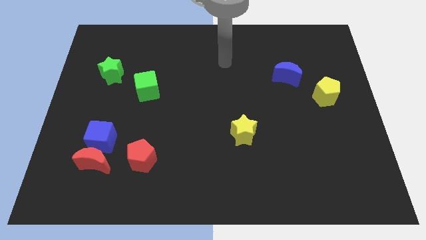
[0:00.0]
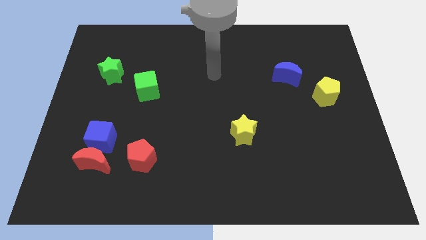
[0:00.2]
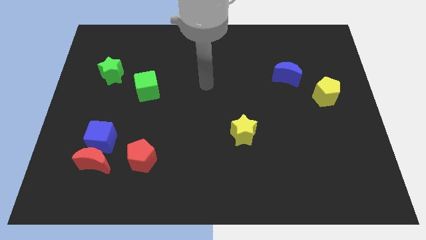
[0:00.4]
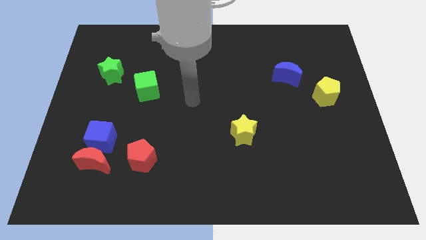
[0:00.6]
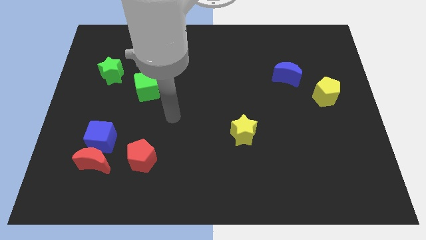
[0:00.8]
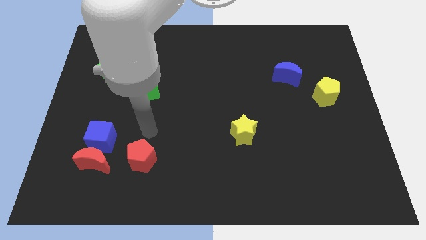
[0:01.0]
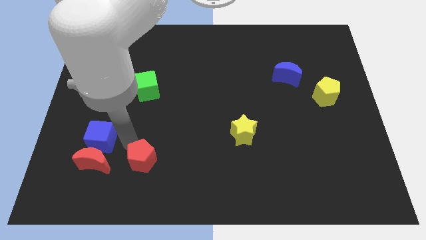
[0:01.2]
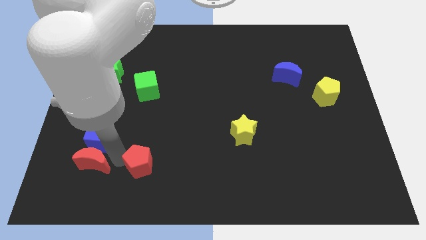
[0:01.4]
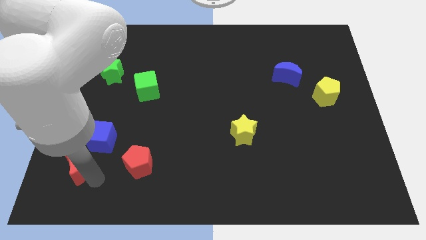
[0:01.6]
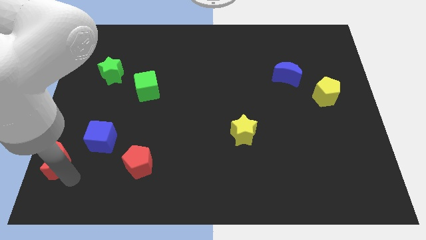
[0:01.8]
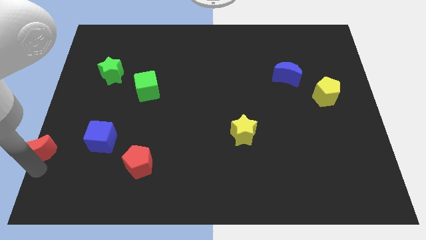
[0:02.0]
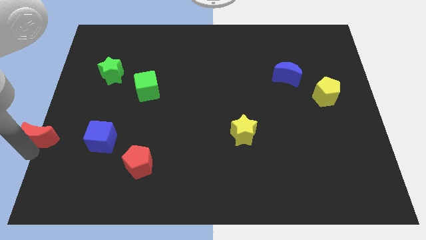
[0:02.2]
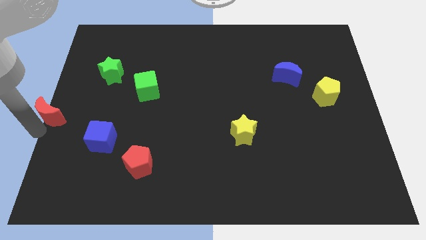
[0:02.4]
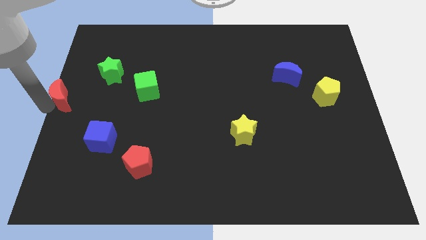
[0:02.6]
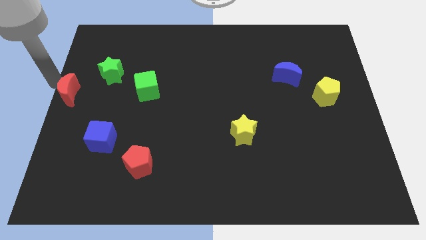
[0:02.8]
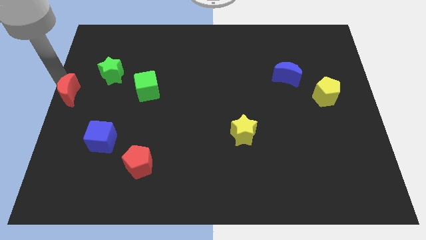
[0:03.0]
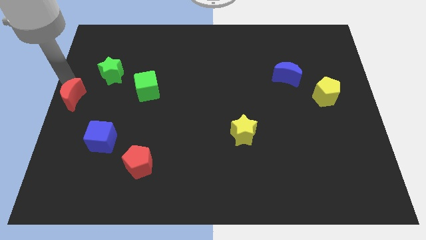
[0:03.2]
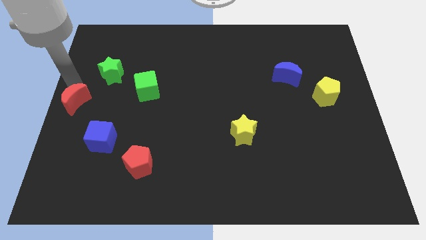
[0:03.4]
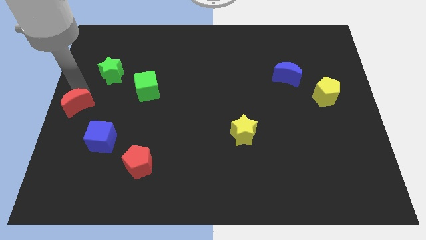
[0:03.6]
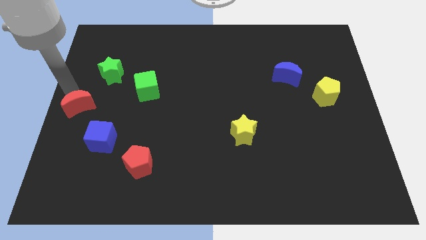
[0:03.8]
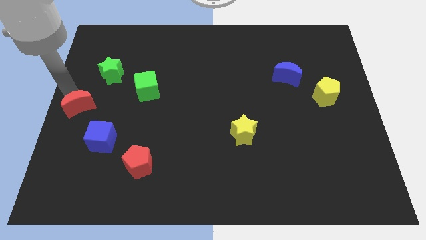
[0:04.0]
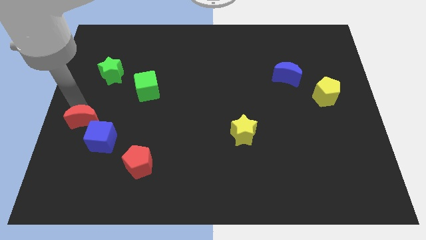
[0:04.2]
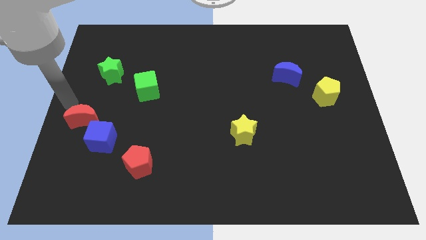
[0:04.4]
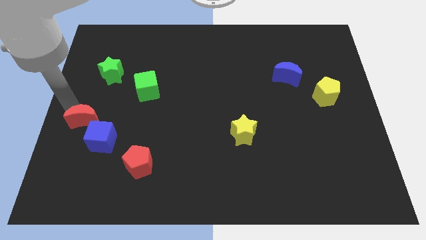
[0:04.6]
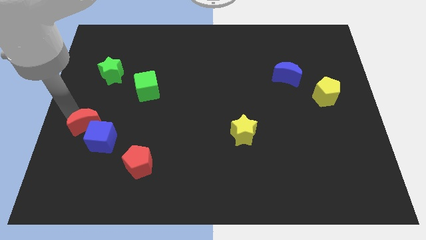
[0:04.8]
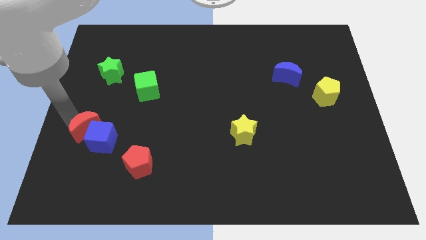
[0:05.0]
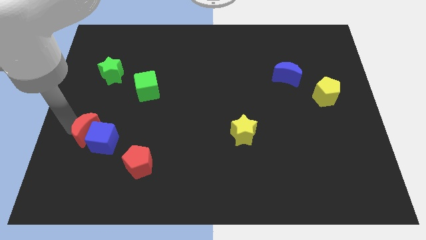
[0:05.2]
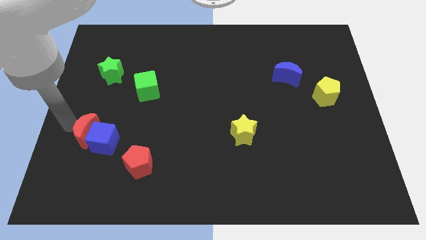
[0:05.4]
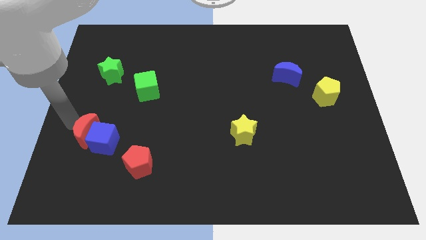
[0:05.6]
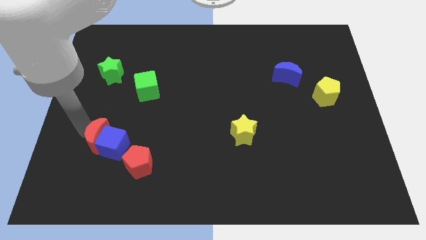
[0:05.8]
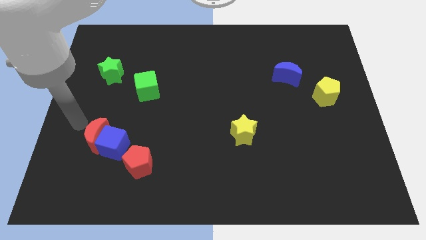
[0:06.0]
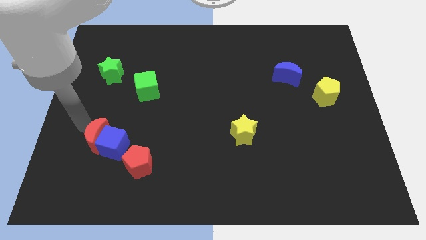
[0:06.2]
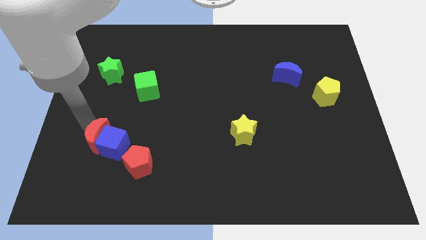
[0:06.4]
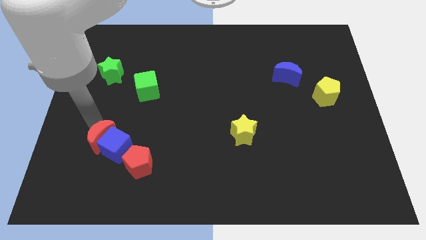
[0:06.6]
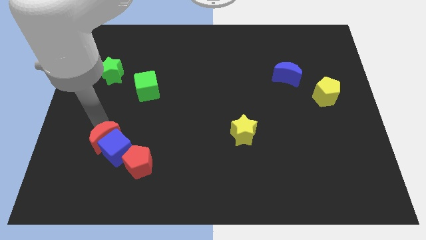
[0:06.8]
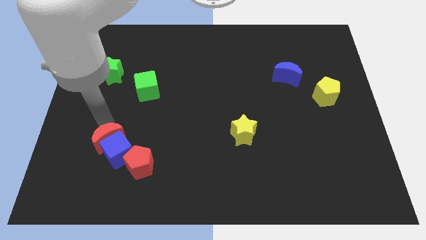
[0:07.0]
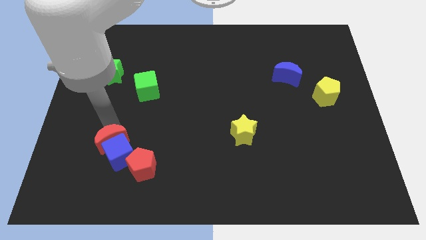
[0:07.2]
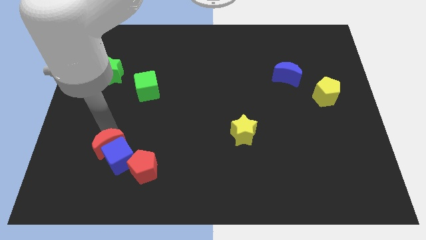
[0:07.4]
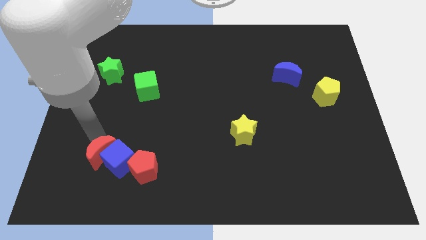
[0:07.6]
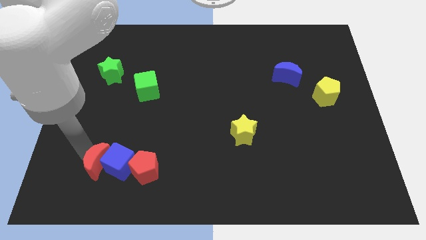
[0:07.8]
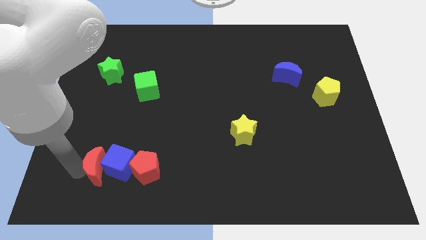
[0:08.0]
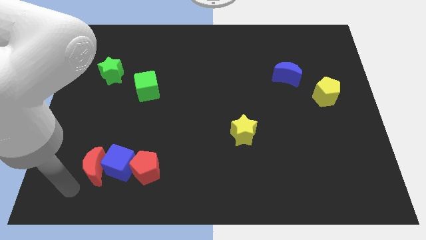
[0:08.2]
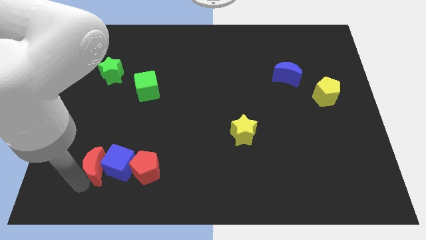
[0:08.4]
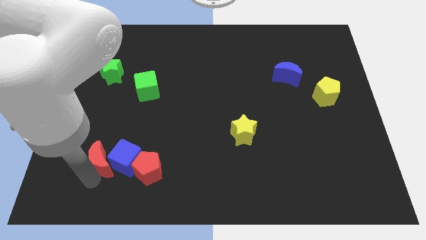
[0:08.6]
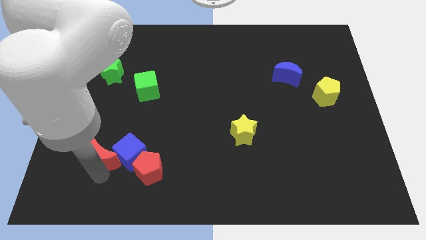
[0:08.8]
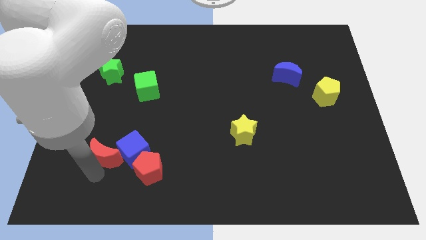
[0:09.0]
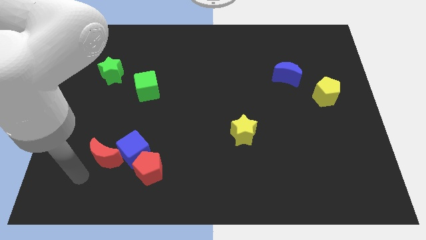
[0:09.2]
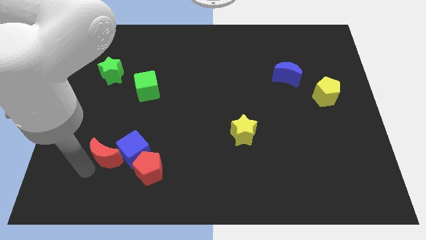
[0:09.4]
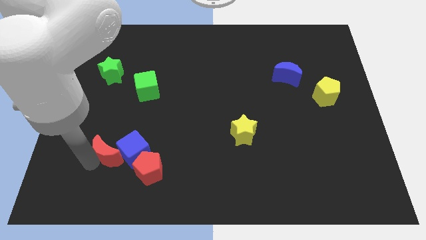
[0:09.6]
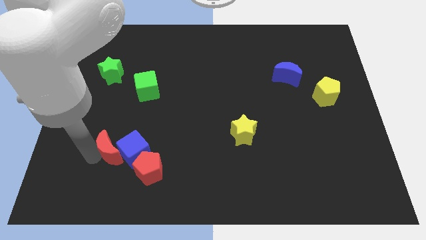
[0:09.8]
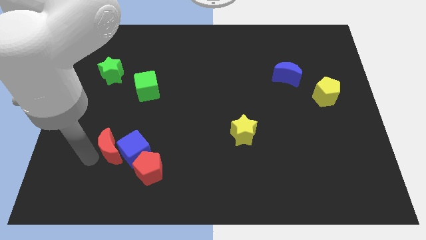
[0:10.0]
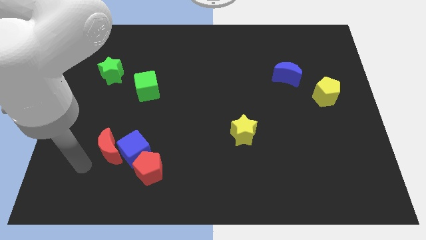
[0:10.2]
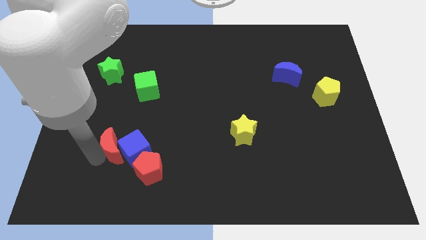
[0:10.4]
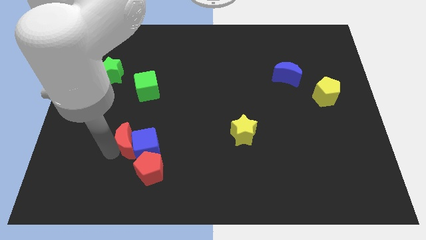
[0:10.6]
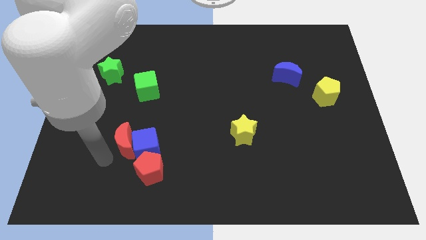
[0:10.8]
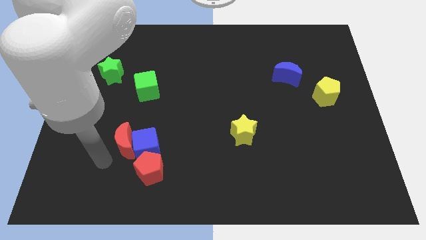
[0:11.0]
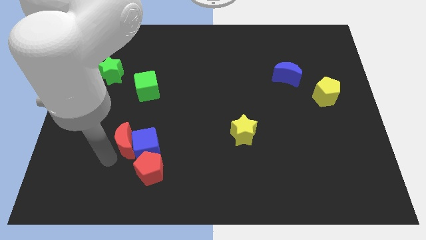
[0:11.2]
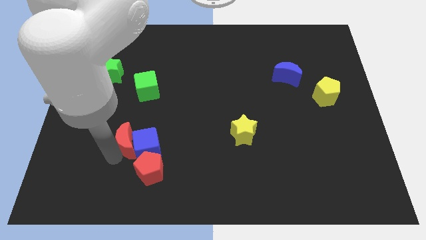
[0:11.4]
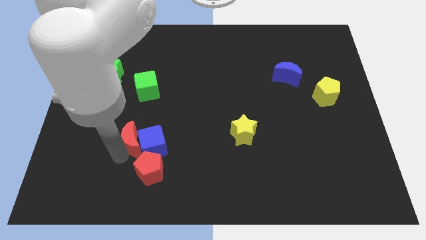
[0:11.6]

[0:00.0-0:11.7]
put the red moon to the top side of the red pentagon

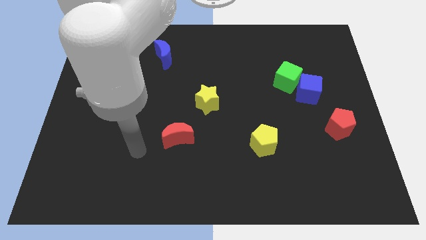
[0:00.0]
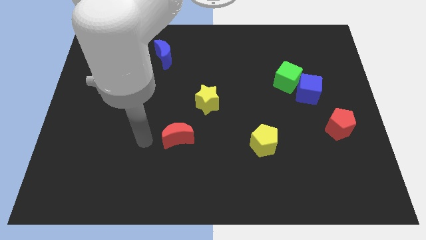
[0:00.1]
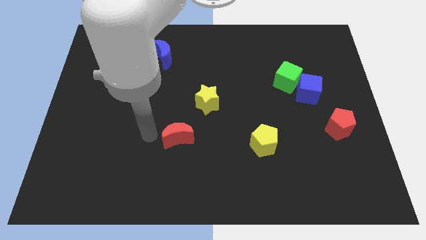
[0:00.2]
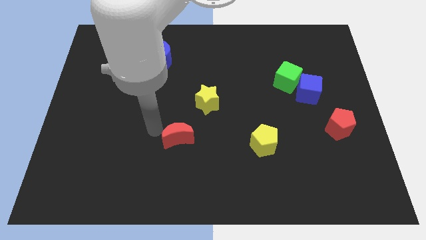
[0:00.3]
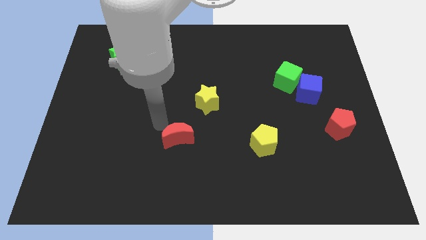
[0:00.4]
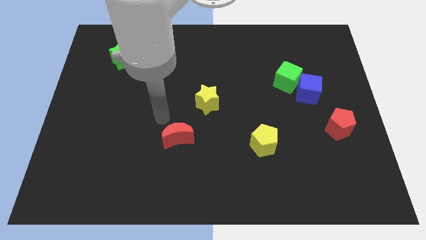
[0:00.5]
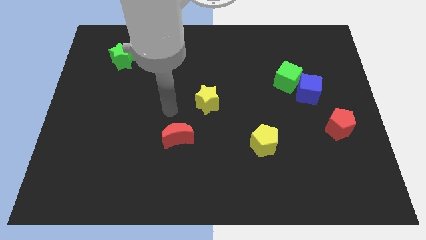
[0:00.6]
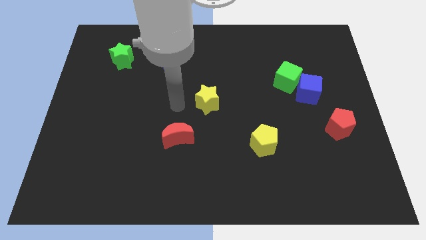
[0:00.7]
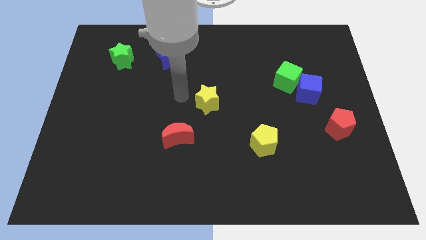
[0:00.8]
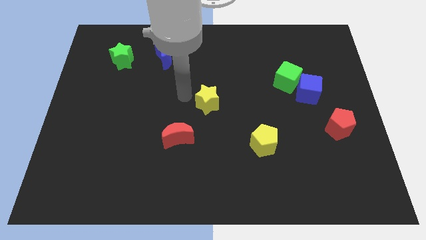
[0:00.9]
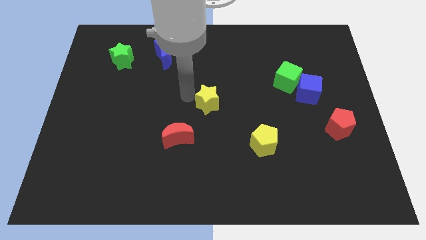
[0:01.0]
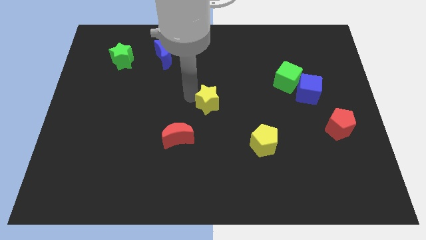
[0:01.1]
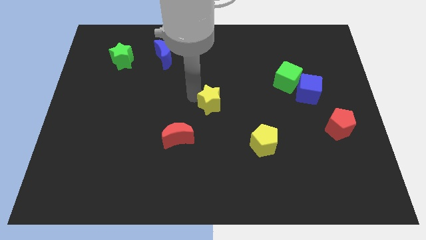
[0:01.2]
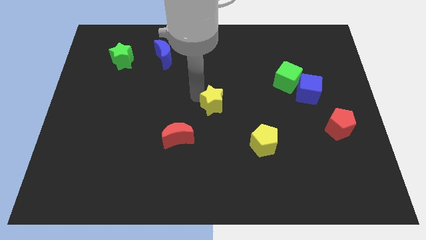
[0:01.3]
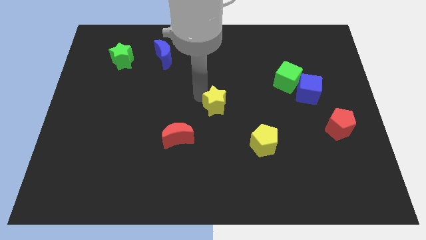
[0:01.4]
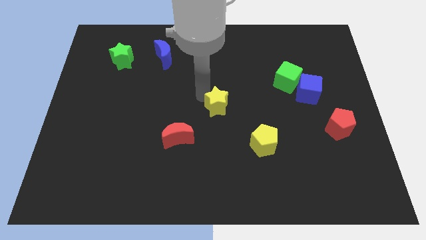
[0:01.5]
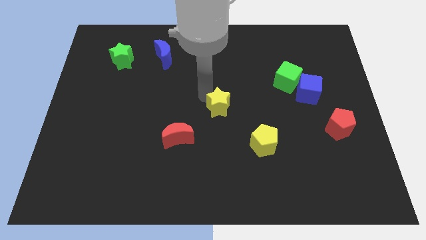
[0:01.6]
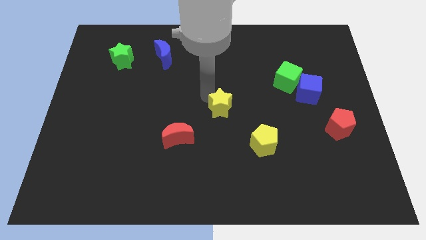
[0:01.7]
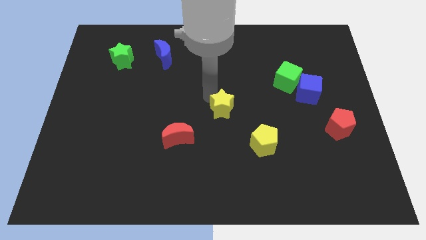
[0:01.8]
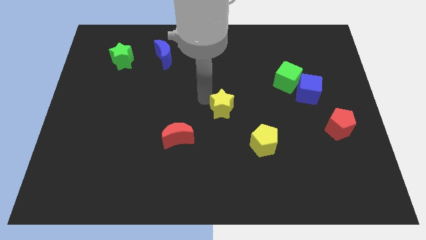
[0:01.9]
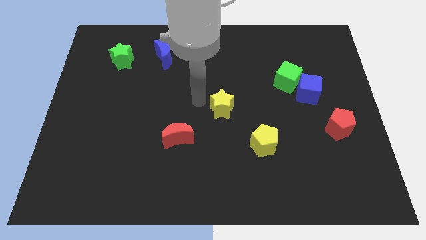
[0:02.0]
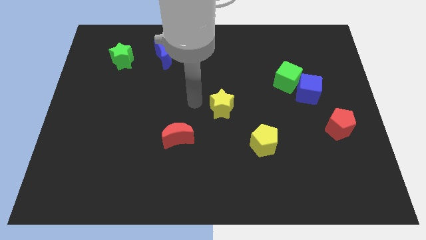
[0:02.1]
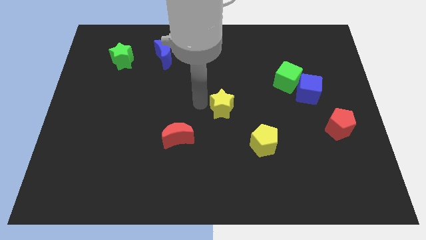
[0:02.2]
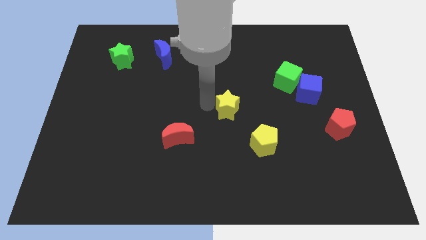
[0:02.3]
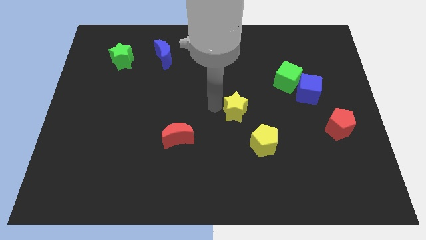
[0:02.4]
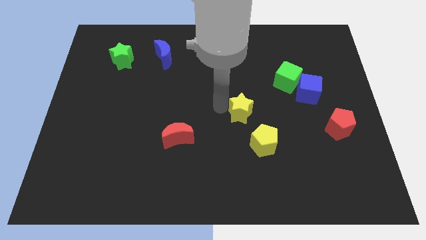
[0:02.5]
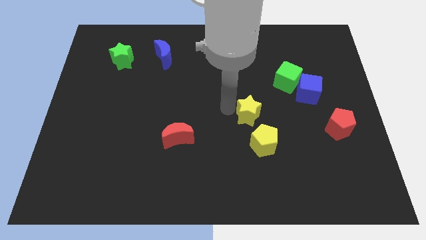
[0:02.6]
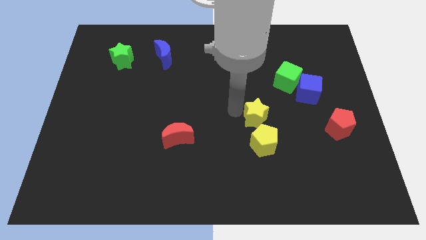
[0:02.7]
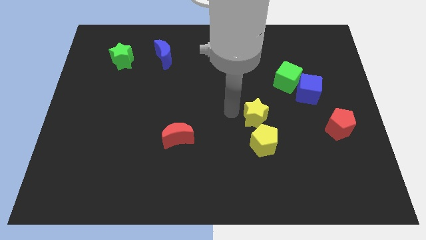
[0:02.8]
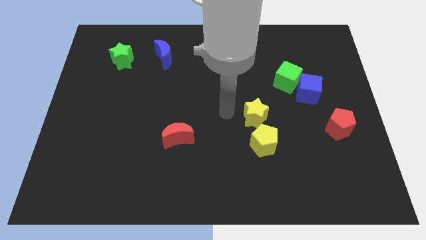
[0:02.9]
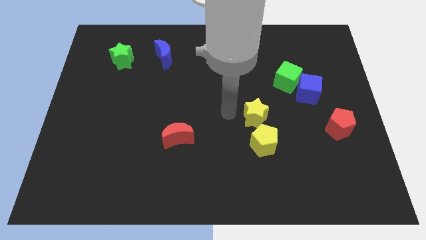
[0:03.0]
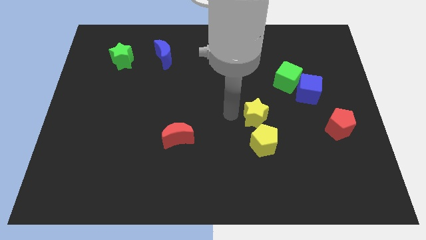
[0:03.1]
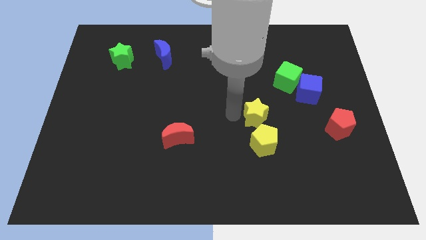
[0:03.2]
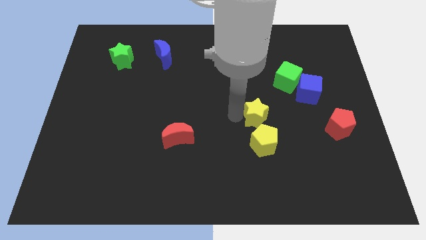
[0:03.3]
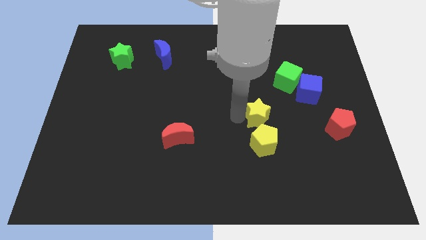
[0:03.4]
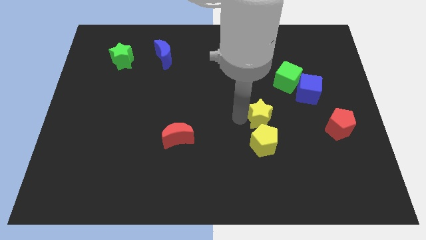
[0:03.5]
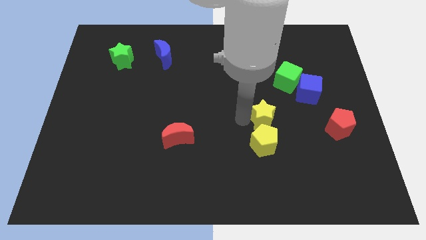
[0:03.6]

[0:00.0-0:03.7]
slide the yellow star to the top right side of the yellow pentagon
